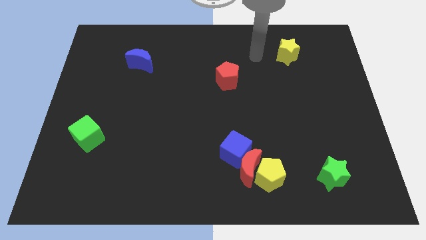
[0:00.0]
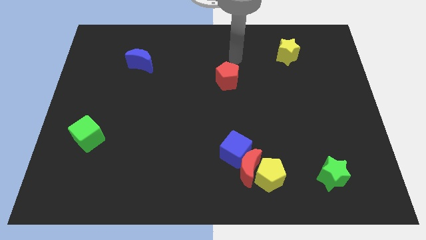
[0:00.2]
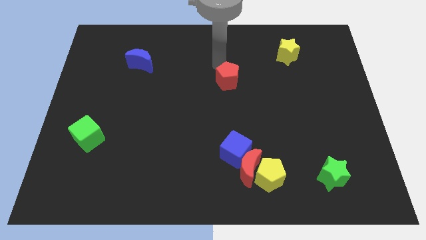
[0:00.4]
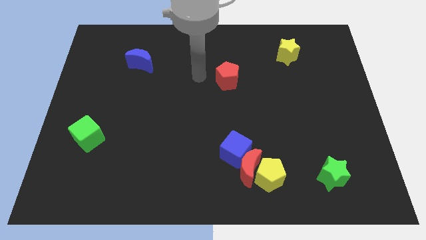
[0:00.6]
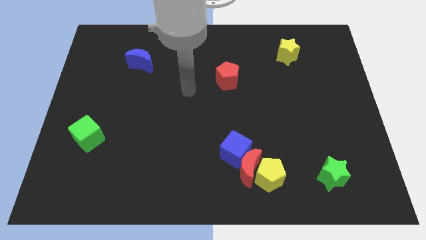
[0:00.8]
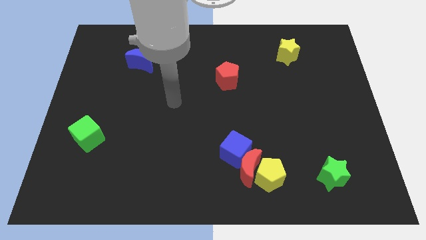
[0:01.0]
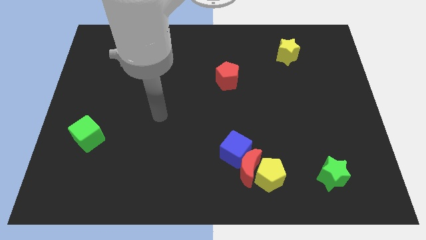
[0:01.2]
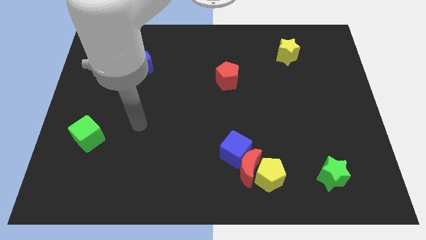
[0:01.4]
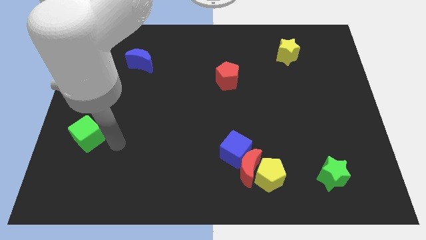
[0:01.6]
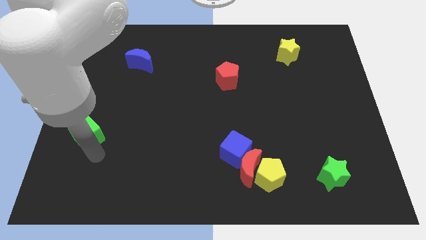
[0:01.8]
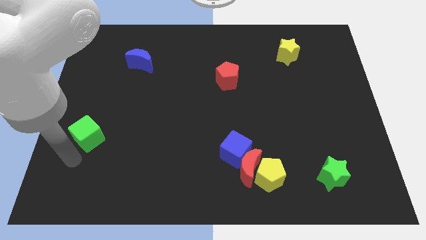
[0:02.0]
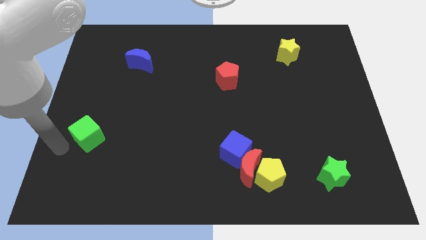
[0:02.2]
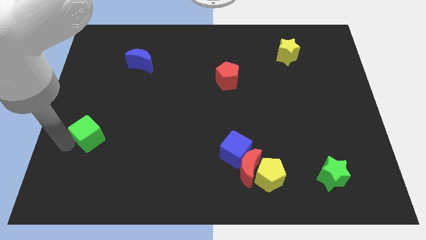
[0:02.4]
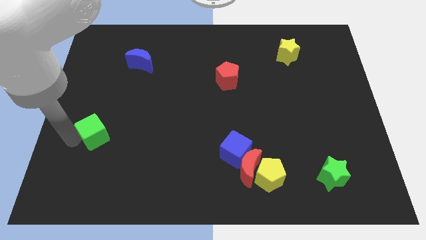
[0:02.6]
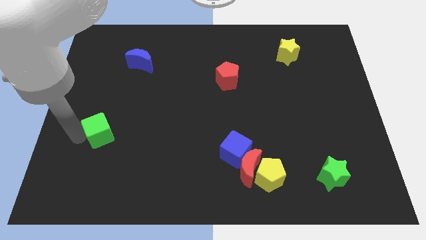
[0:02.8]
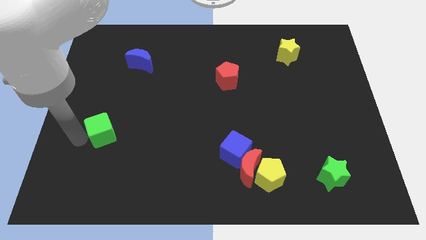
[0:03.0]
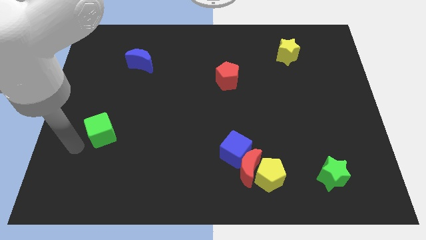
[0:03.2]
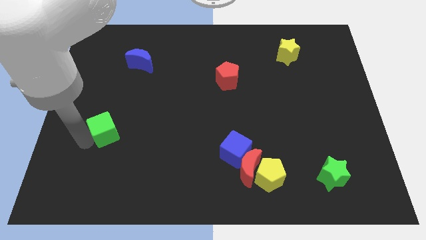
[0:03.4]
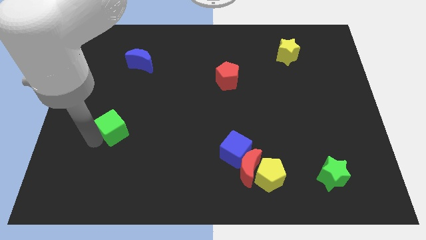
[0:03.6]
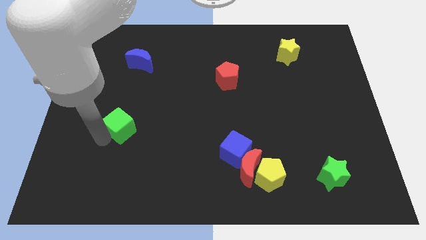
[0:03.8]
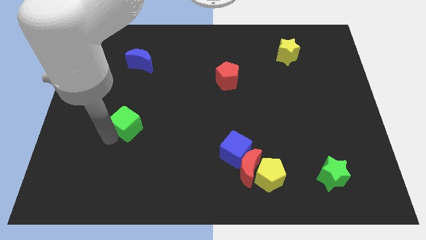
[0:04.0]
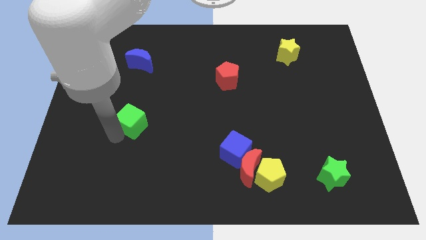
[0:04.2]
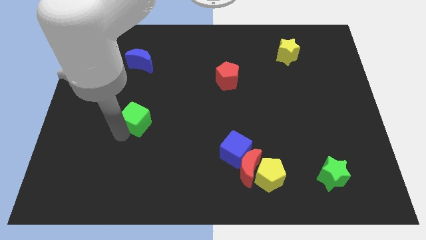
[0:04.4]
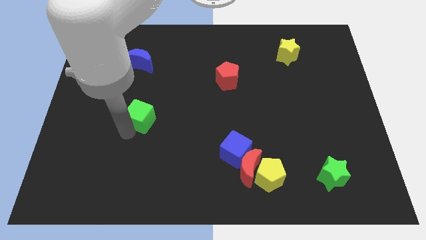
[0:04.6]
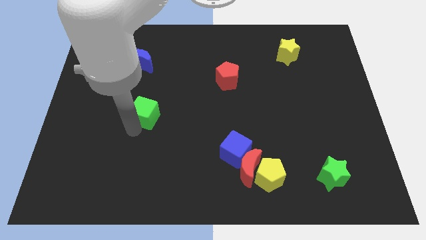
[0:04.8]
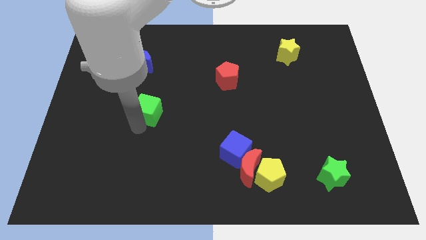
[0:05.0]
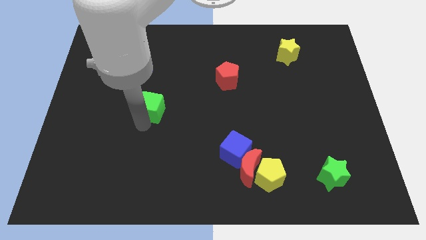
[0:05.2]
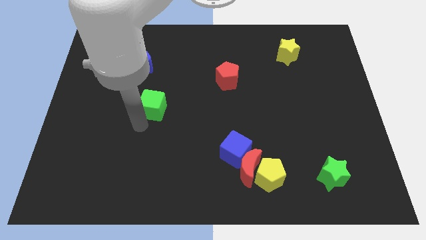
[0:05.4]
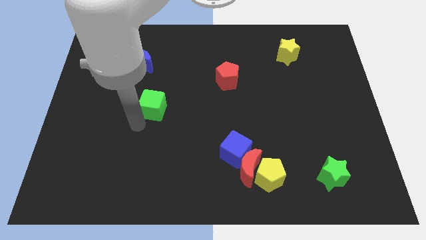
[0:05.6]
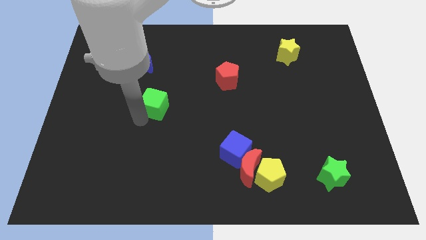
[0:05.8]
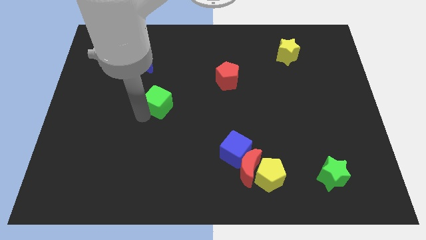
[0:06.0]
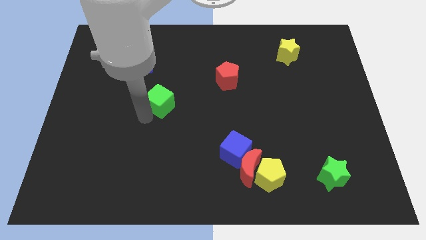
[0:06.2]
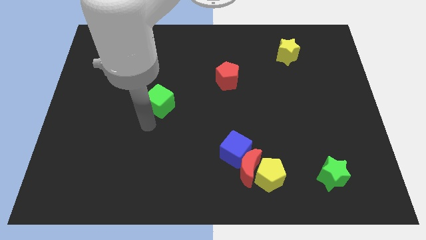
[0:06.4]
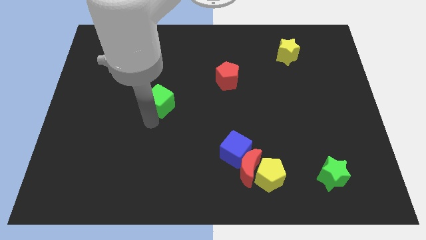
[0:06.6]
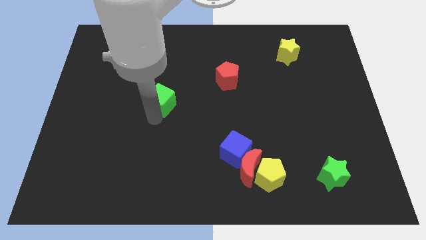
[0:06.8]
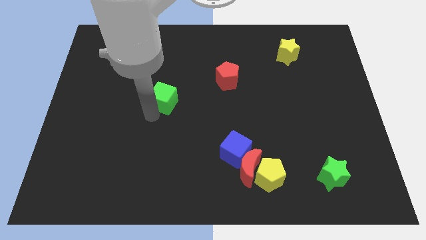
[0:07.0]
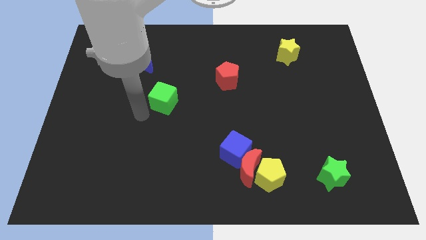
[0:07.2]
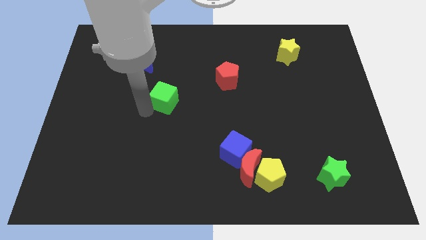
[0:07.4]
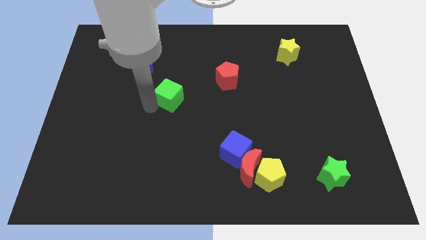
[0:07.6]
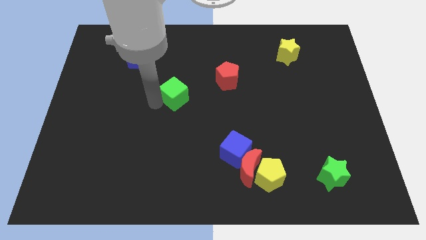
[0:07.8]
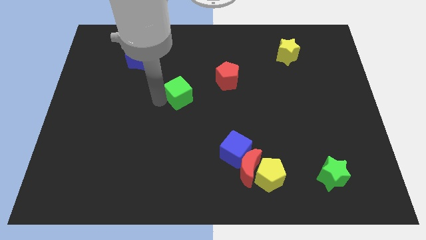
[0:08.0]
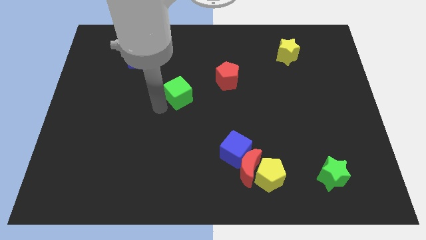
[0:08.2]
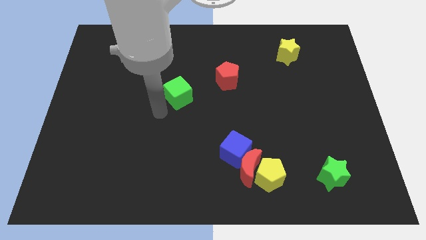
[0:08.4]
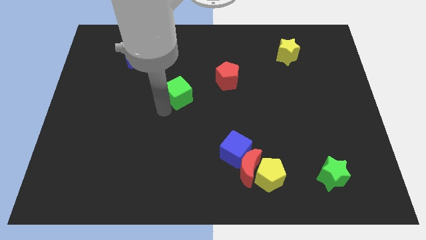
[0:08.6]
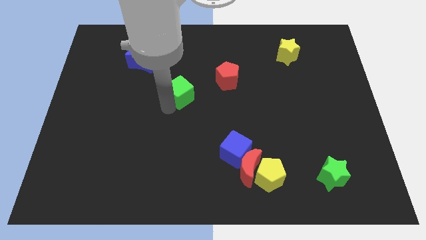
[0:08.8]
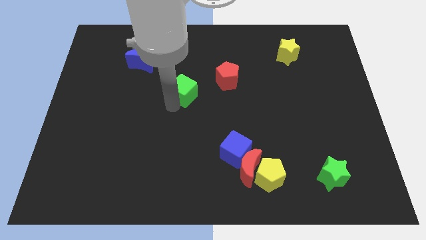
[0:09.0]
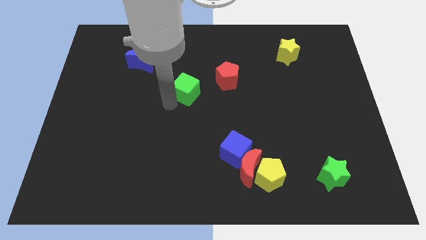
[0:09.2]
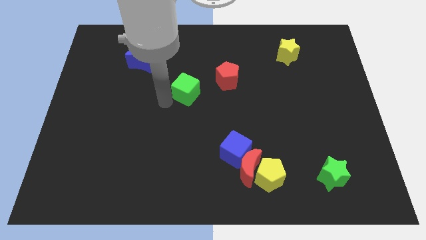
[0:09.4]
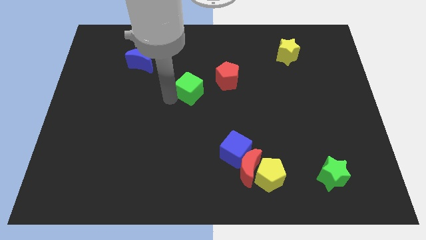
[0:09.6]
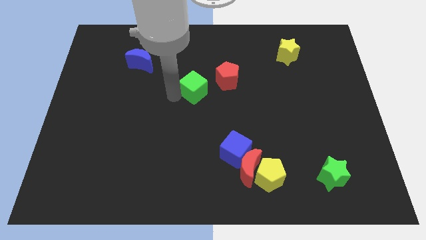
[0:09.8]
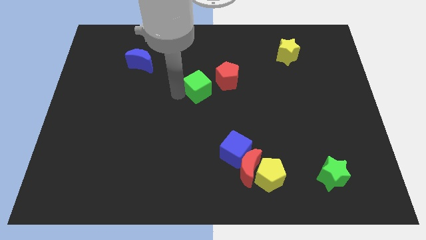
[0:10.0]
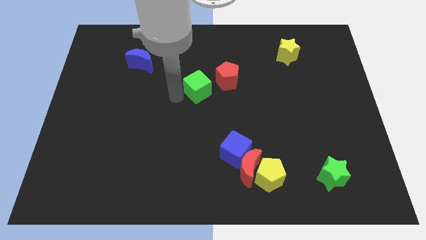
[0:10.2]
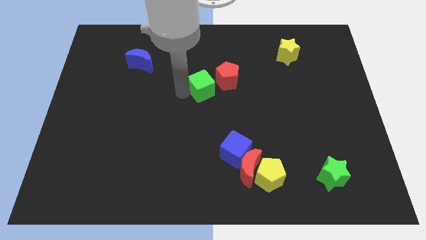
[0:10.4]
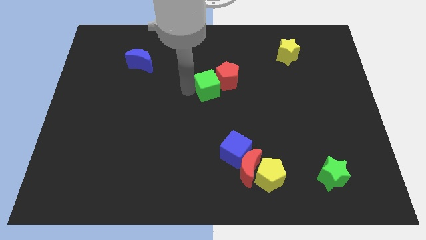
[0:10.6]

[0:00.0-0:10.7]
put the green cube close to the red pentagon

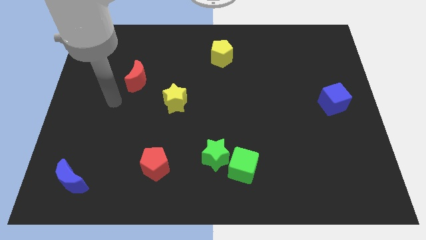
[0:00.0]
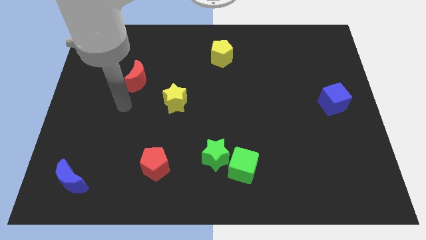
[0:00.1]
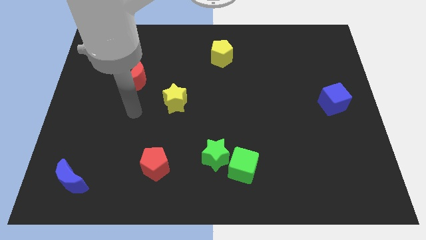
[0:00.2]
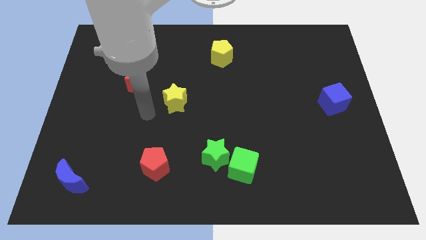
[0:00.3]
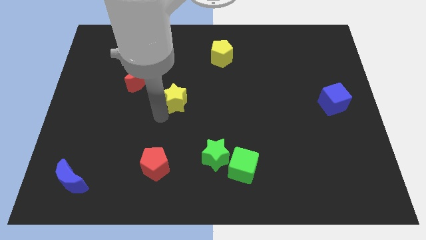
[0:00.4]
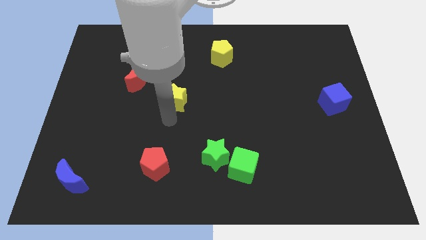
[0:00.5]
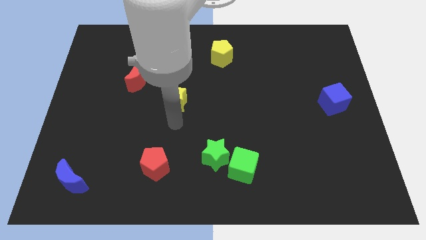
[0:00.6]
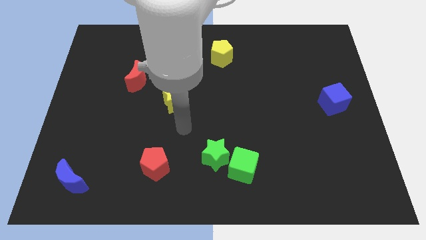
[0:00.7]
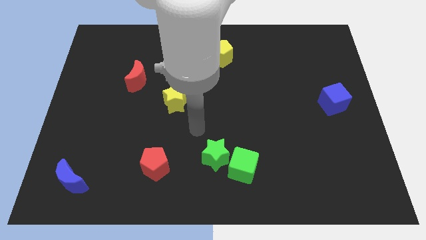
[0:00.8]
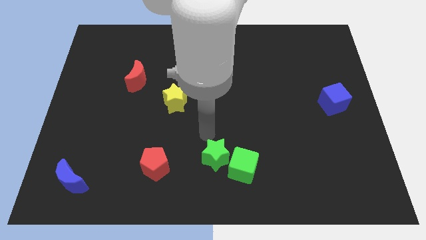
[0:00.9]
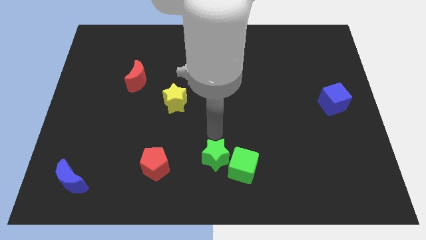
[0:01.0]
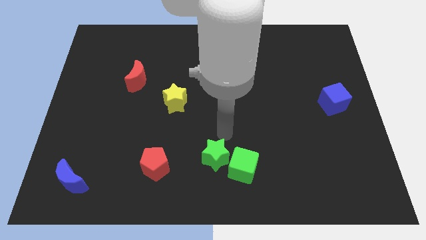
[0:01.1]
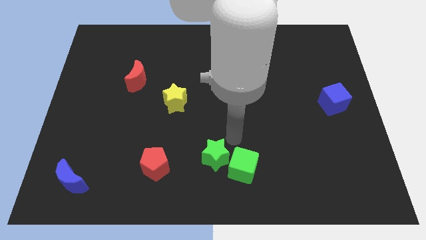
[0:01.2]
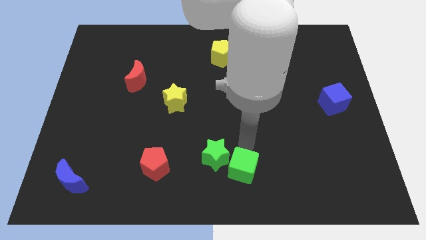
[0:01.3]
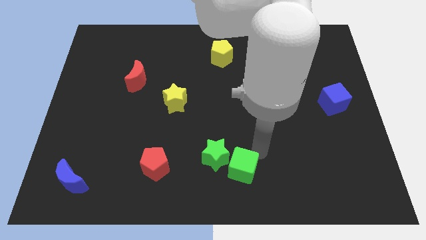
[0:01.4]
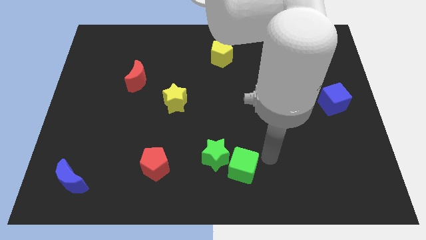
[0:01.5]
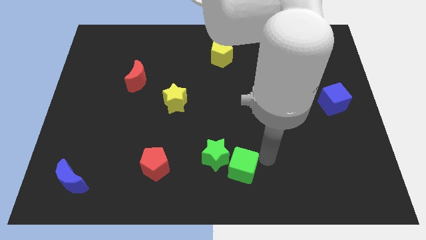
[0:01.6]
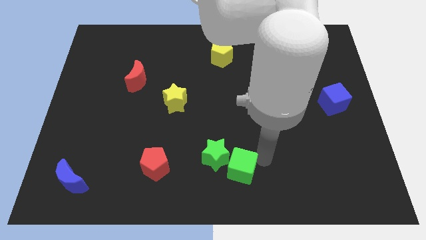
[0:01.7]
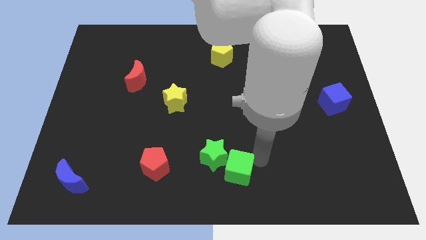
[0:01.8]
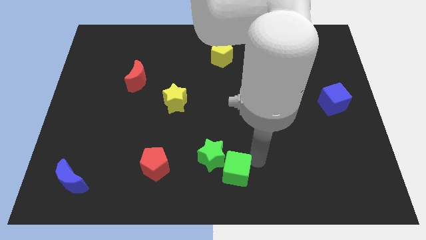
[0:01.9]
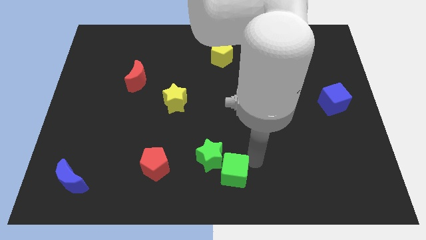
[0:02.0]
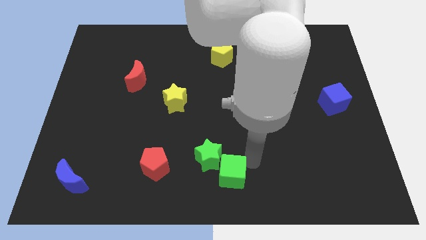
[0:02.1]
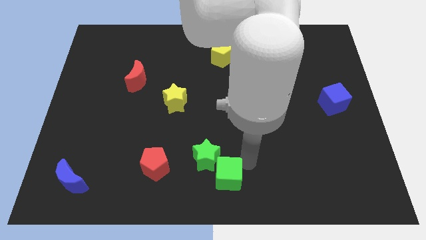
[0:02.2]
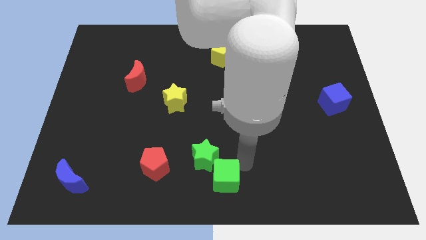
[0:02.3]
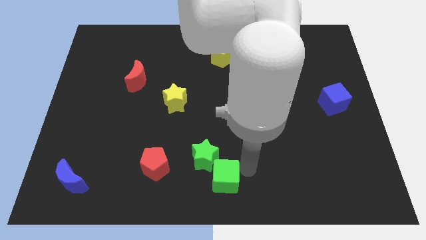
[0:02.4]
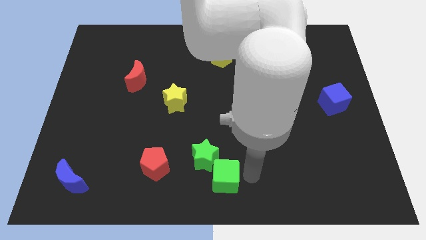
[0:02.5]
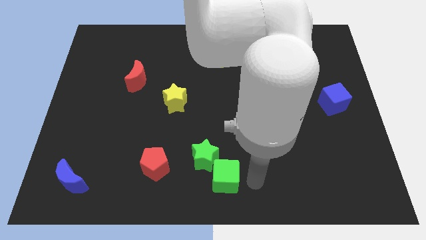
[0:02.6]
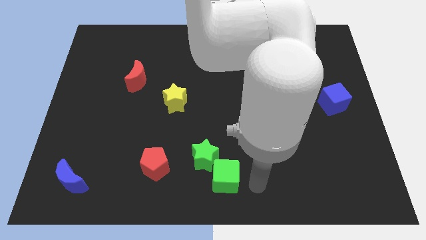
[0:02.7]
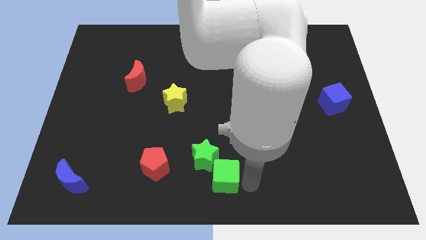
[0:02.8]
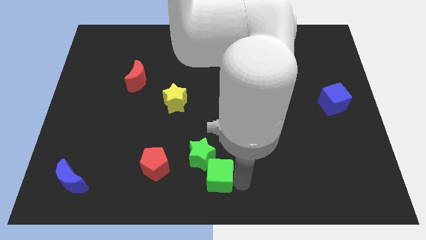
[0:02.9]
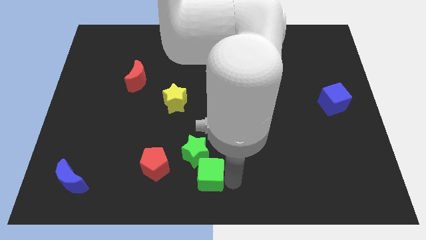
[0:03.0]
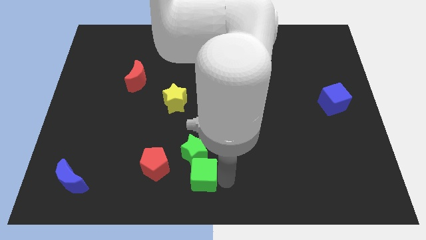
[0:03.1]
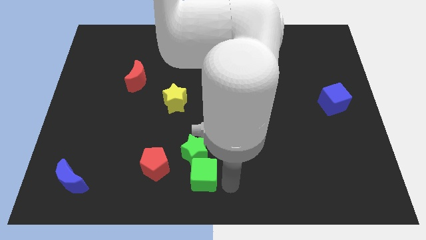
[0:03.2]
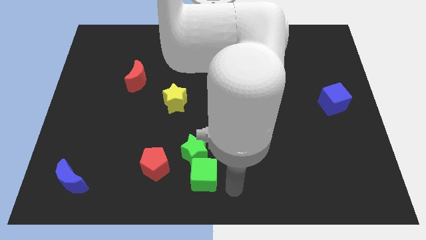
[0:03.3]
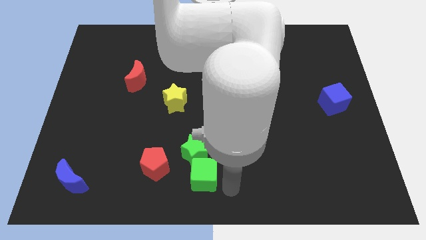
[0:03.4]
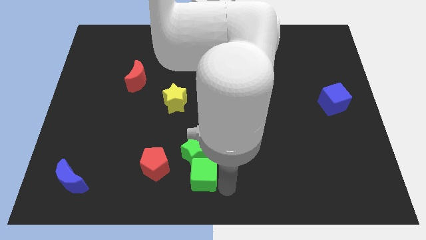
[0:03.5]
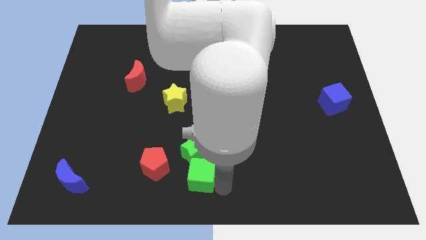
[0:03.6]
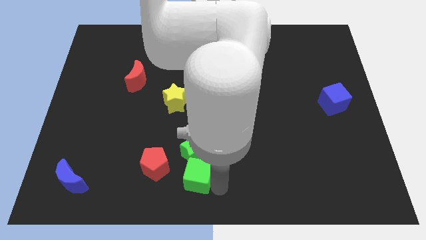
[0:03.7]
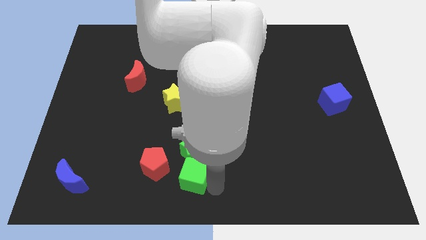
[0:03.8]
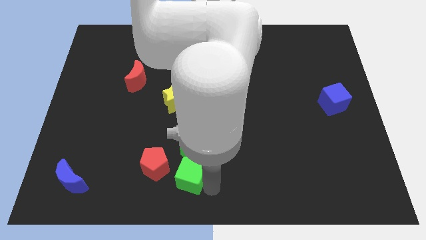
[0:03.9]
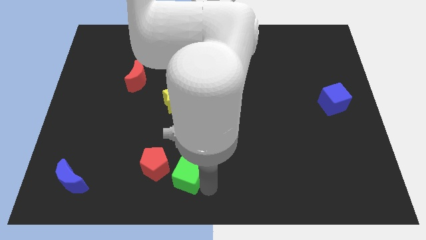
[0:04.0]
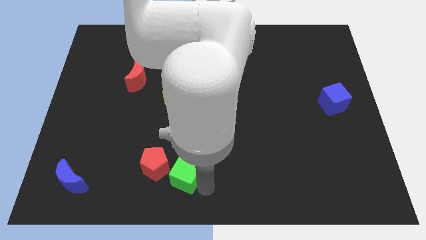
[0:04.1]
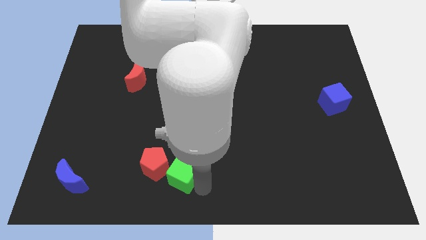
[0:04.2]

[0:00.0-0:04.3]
slide the green cube to the red pentagon
